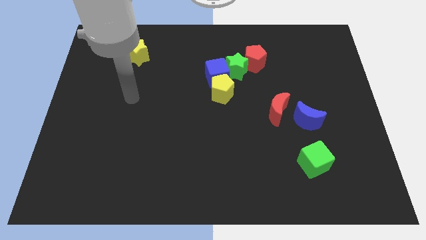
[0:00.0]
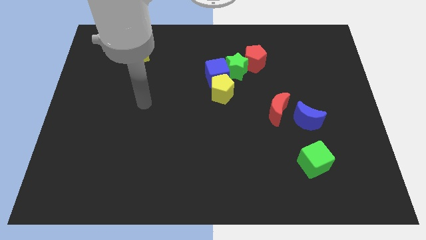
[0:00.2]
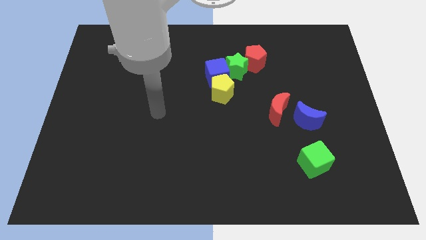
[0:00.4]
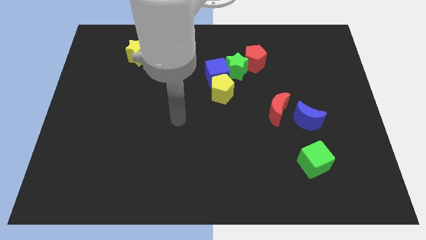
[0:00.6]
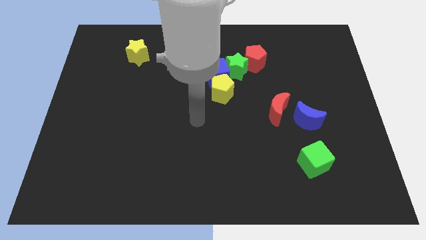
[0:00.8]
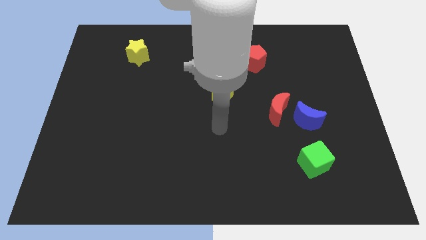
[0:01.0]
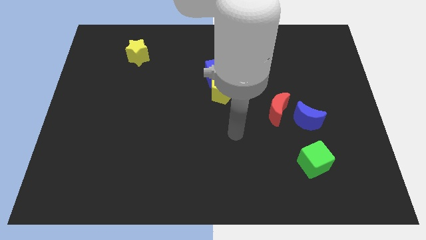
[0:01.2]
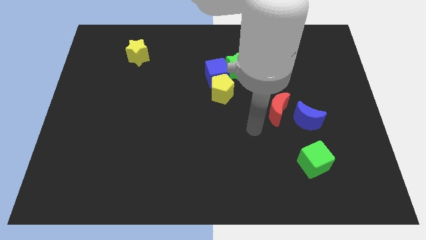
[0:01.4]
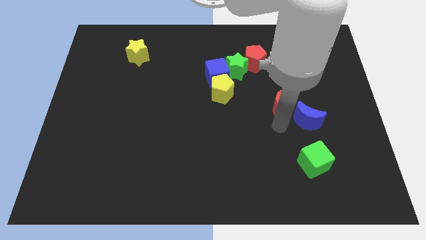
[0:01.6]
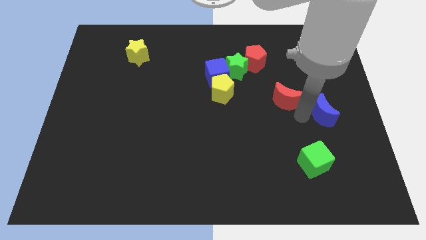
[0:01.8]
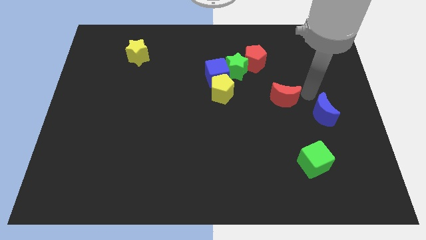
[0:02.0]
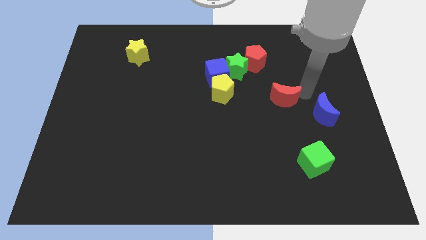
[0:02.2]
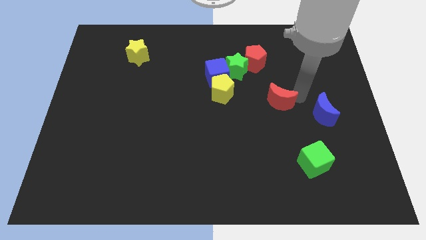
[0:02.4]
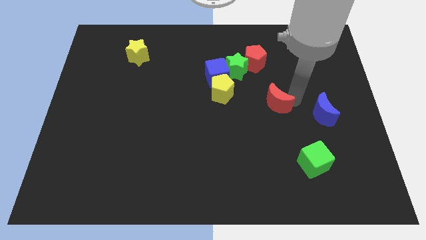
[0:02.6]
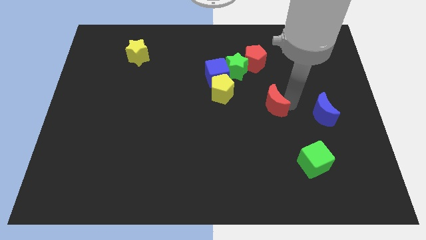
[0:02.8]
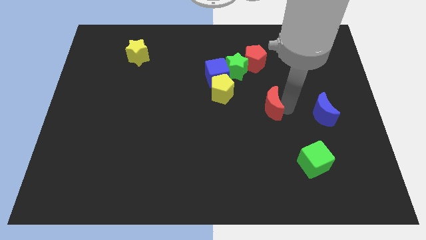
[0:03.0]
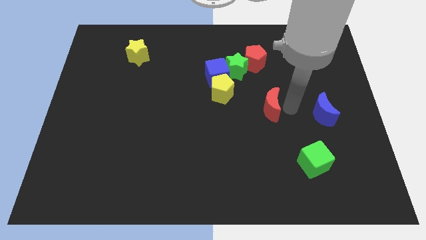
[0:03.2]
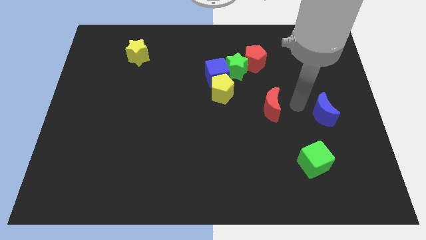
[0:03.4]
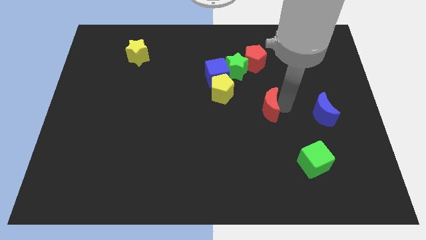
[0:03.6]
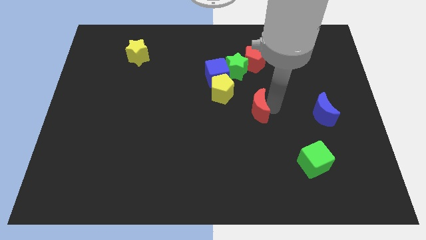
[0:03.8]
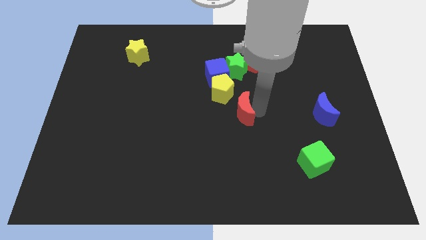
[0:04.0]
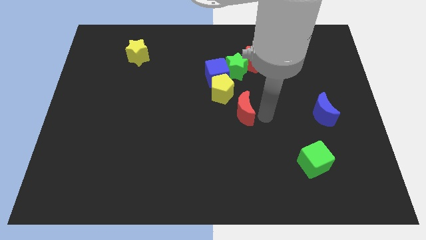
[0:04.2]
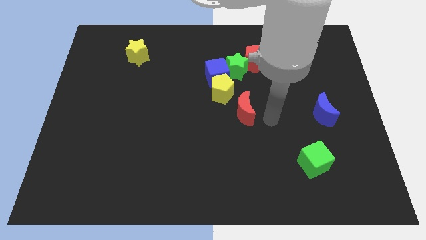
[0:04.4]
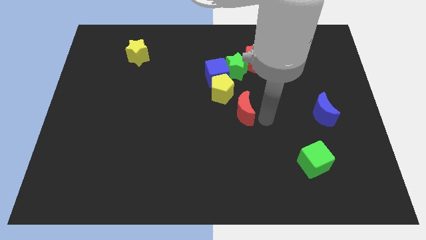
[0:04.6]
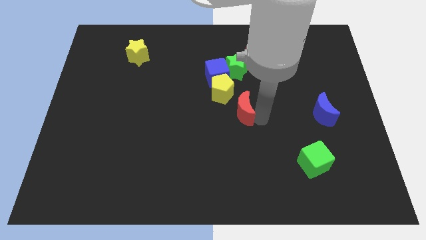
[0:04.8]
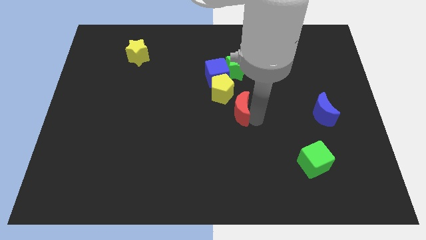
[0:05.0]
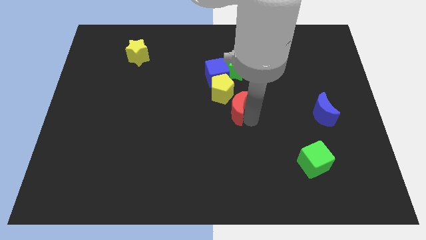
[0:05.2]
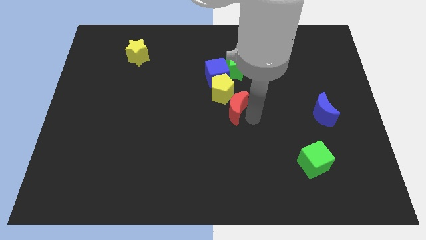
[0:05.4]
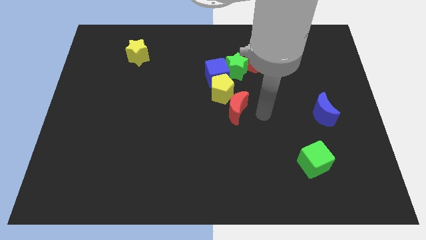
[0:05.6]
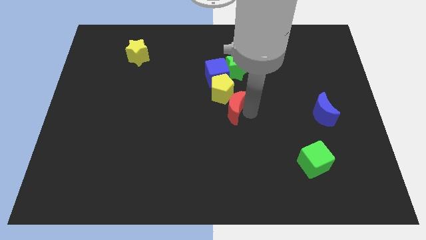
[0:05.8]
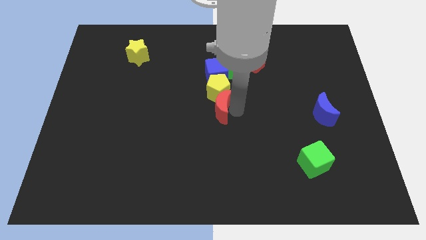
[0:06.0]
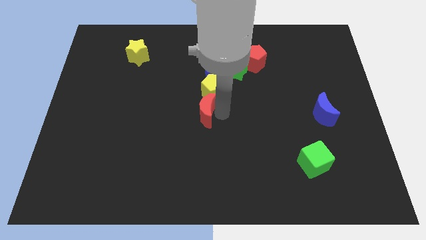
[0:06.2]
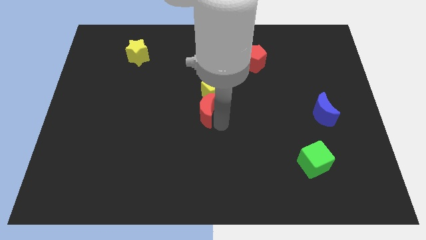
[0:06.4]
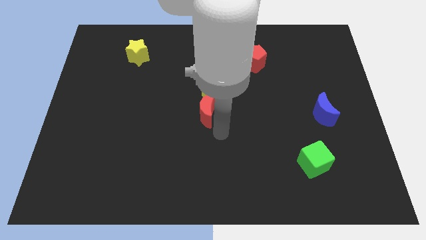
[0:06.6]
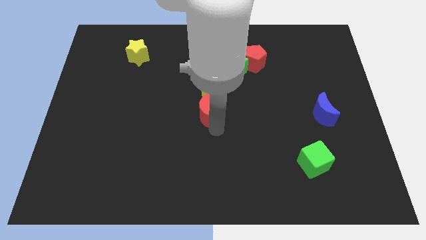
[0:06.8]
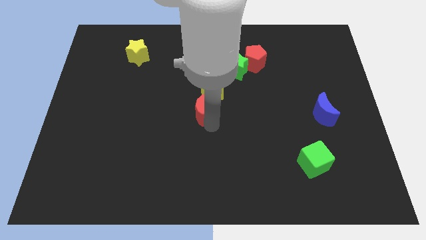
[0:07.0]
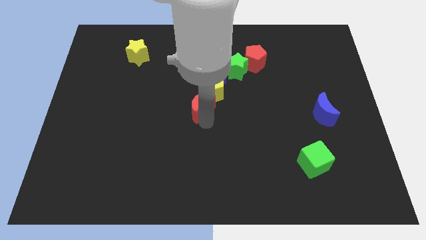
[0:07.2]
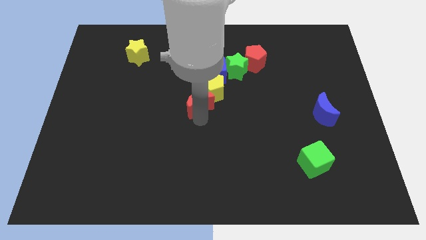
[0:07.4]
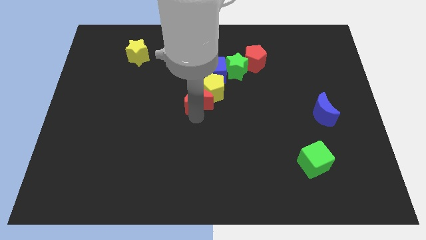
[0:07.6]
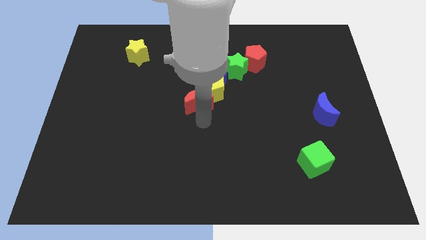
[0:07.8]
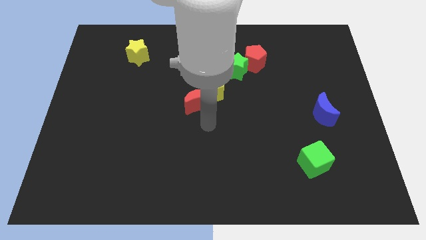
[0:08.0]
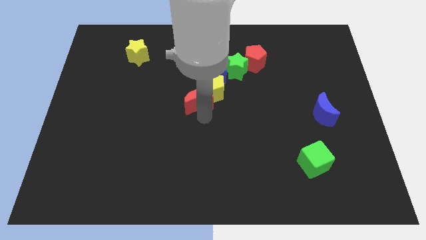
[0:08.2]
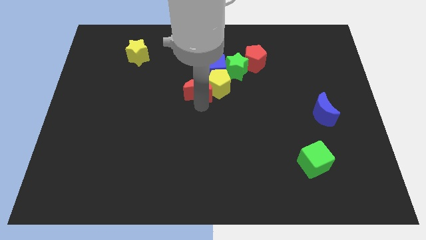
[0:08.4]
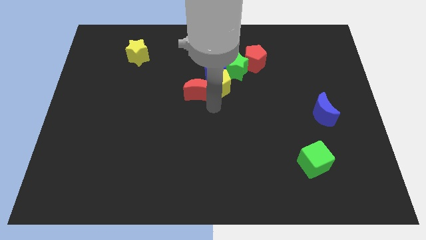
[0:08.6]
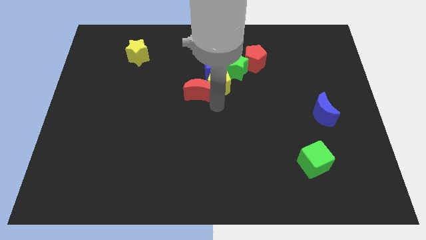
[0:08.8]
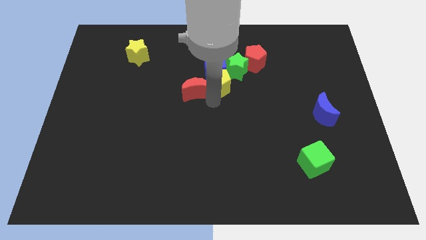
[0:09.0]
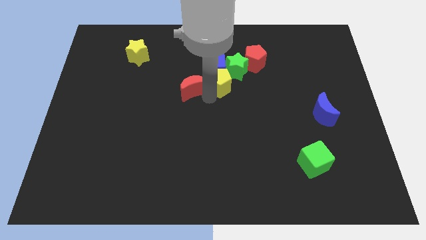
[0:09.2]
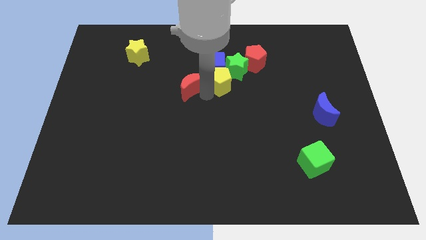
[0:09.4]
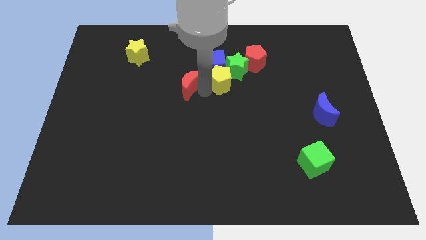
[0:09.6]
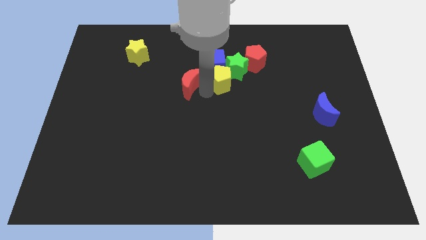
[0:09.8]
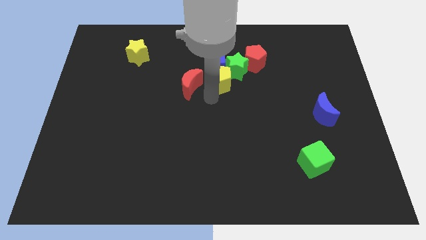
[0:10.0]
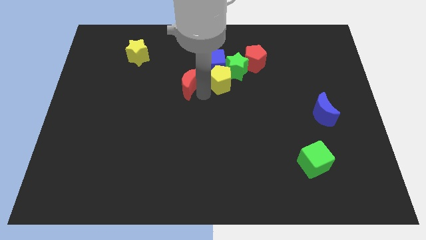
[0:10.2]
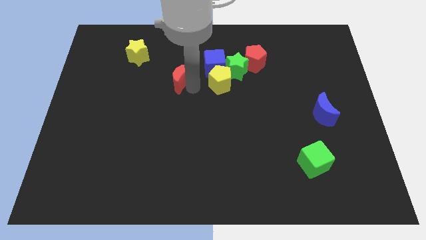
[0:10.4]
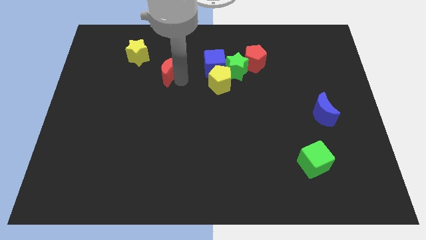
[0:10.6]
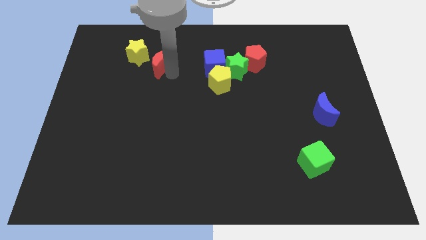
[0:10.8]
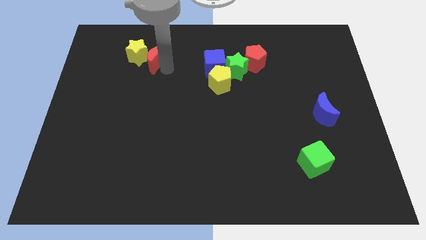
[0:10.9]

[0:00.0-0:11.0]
move the red moon close to the yellow star
